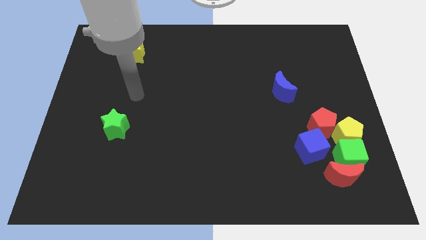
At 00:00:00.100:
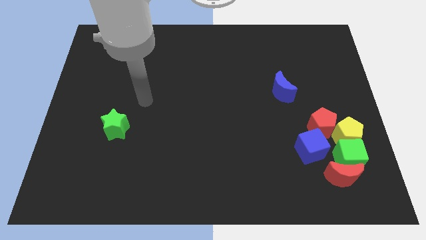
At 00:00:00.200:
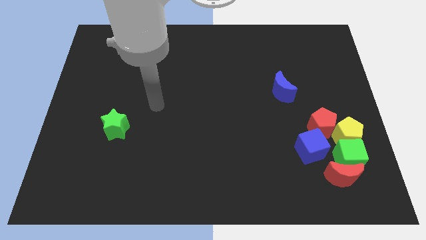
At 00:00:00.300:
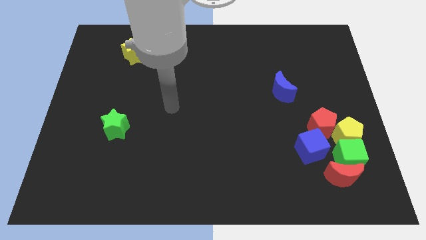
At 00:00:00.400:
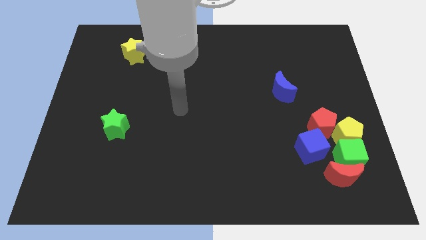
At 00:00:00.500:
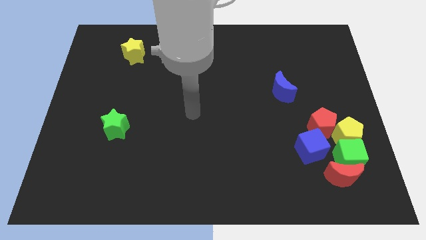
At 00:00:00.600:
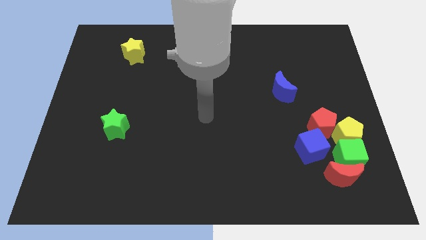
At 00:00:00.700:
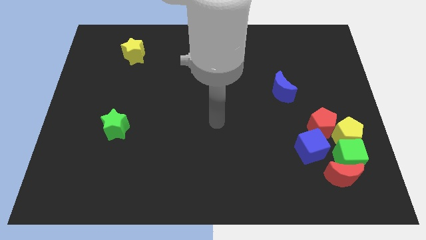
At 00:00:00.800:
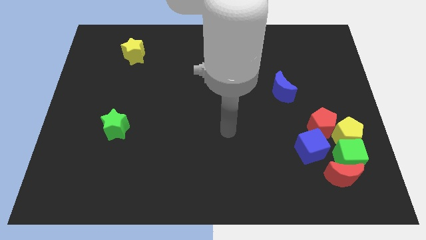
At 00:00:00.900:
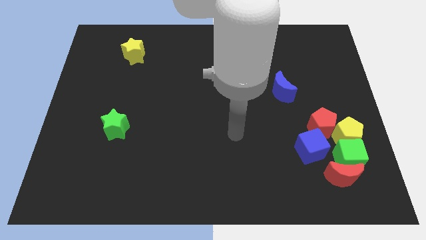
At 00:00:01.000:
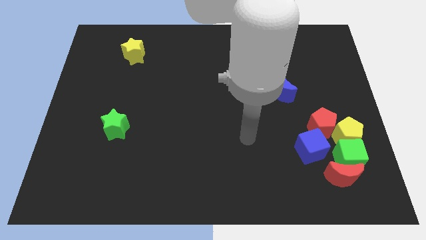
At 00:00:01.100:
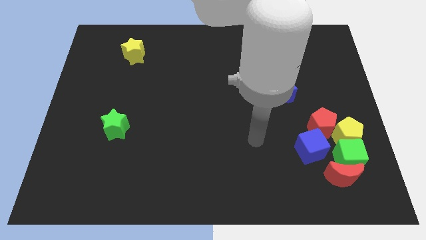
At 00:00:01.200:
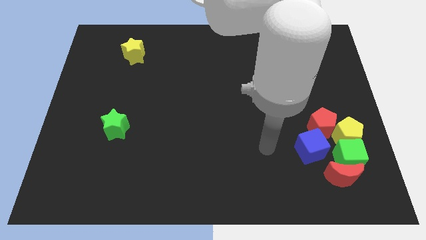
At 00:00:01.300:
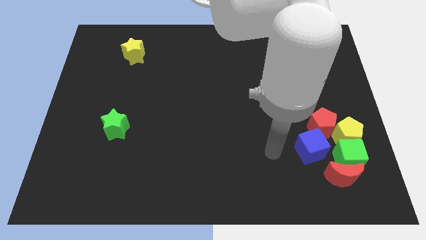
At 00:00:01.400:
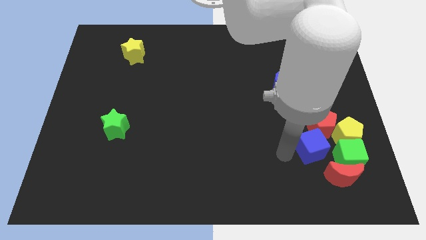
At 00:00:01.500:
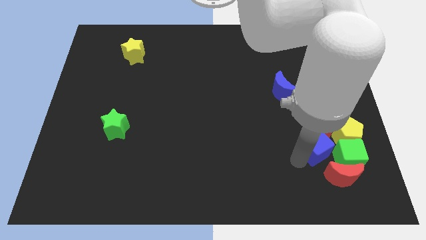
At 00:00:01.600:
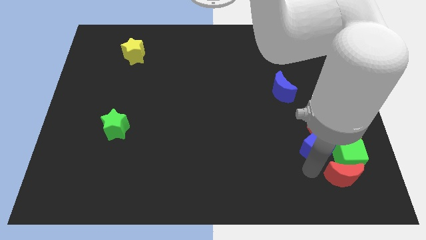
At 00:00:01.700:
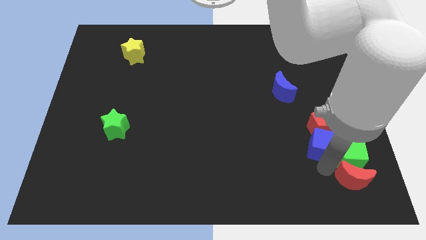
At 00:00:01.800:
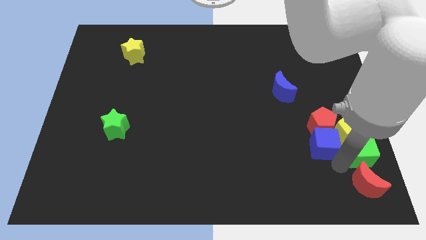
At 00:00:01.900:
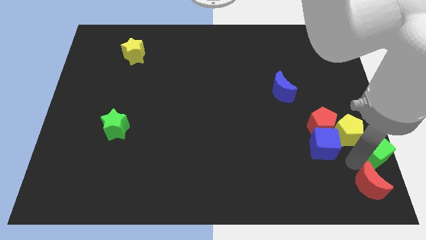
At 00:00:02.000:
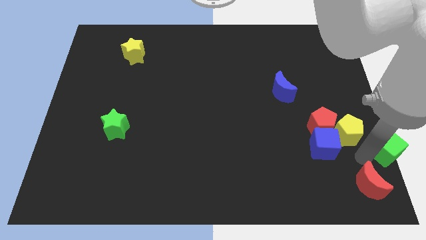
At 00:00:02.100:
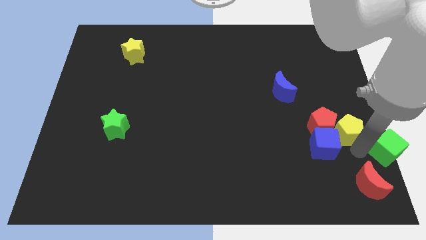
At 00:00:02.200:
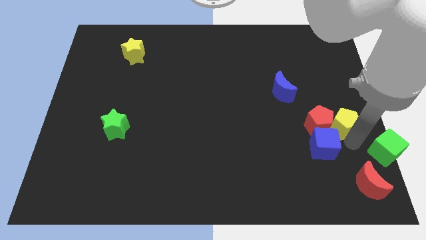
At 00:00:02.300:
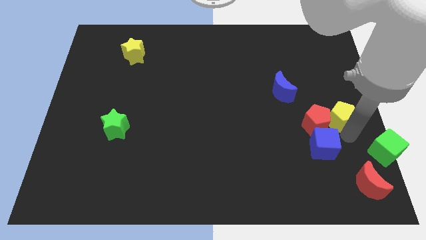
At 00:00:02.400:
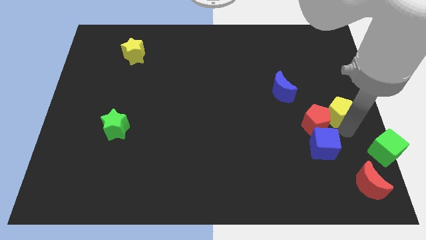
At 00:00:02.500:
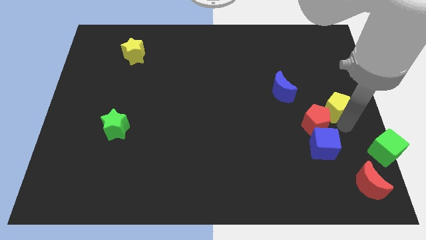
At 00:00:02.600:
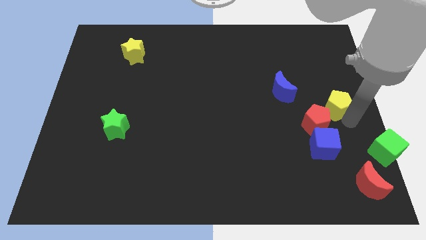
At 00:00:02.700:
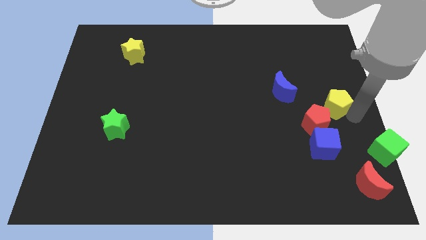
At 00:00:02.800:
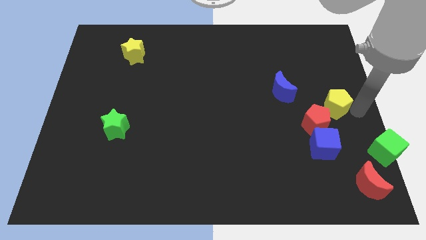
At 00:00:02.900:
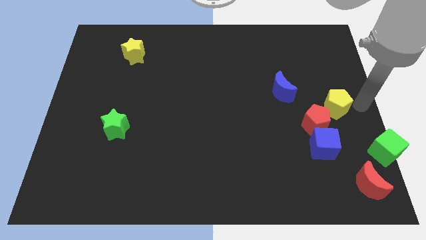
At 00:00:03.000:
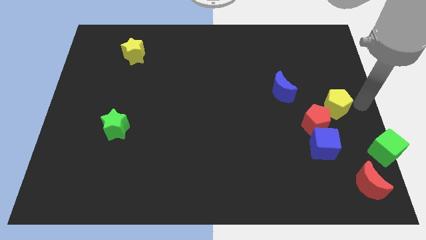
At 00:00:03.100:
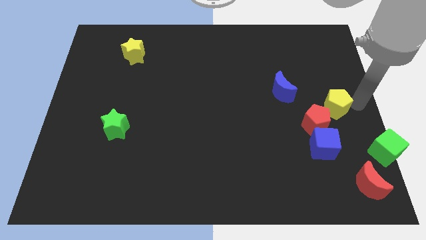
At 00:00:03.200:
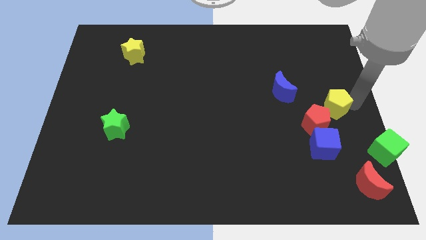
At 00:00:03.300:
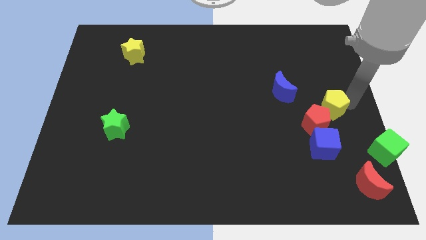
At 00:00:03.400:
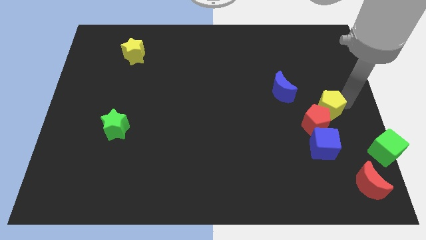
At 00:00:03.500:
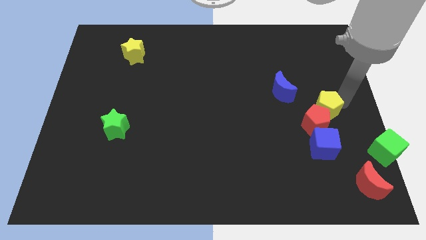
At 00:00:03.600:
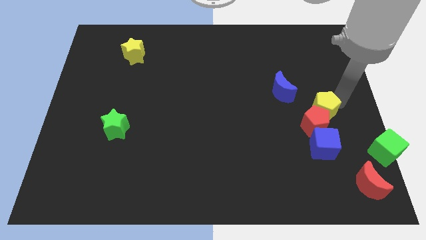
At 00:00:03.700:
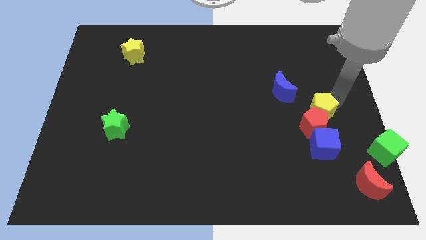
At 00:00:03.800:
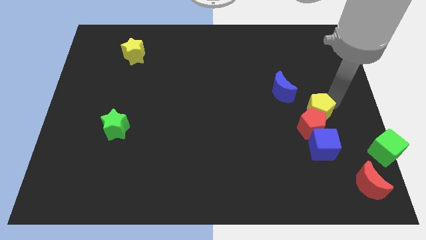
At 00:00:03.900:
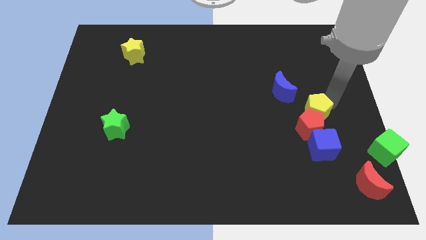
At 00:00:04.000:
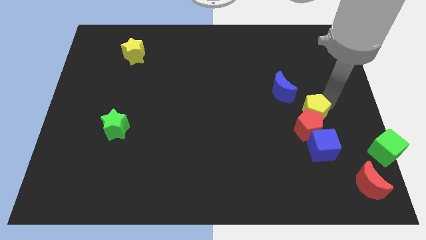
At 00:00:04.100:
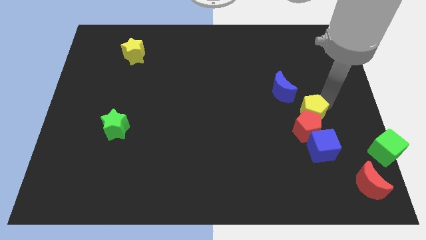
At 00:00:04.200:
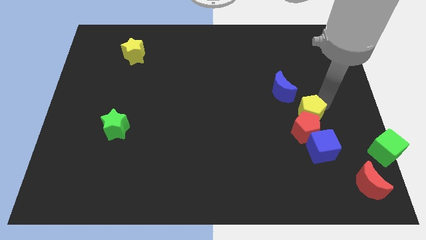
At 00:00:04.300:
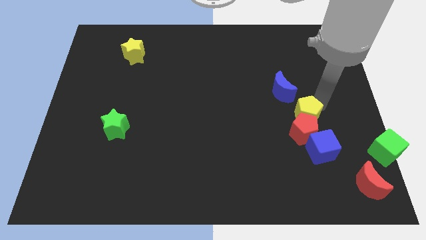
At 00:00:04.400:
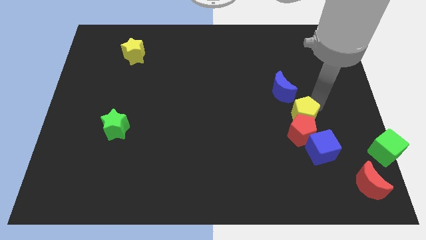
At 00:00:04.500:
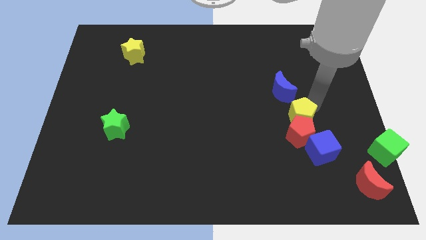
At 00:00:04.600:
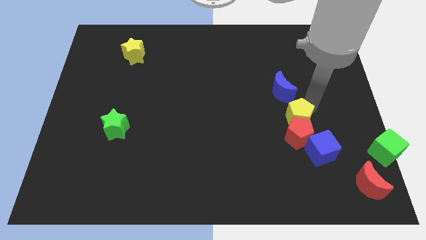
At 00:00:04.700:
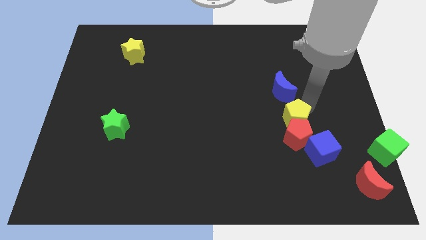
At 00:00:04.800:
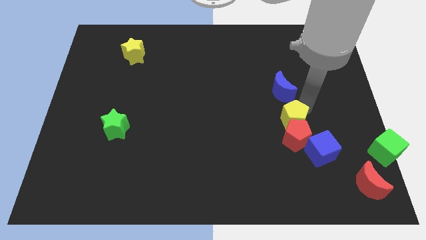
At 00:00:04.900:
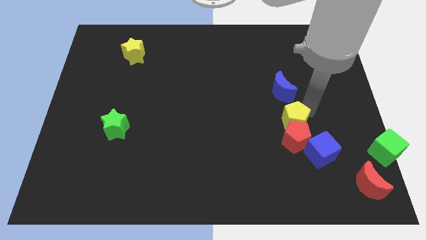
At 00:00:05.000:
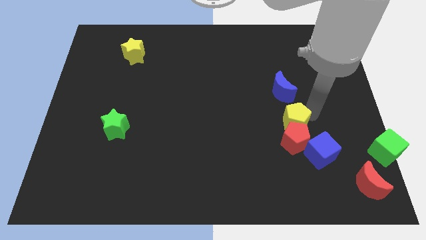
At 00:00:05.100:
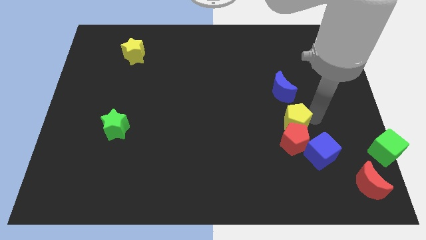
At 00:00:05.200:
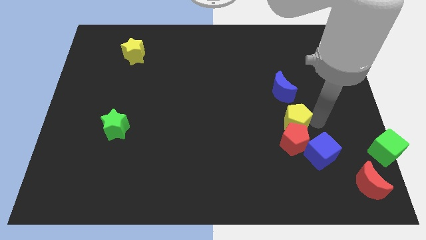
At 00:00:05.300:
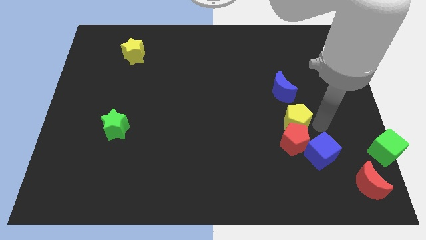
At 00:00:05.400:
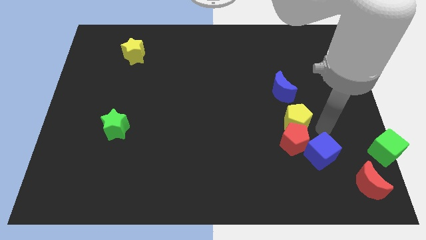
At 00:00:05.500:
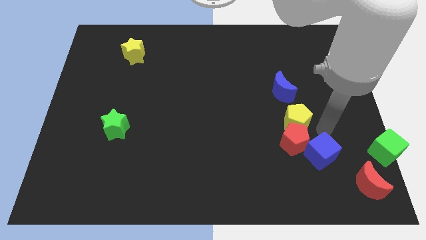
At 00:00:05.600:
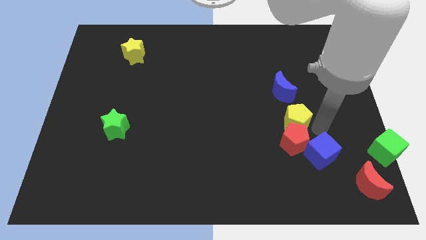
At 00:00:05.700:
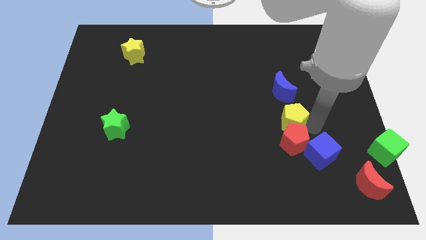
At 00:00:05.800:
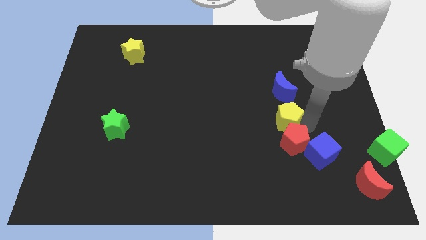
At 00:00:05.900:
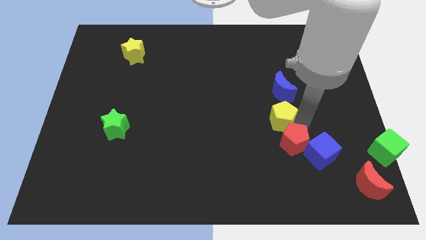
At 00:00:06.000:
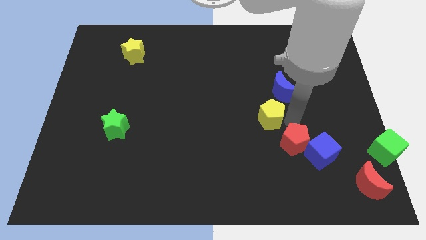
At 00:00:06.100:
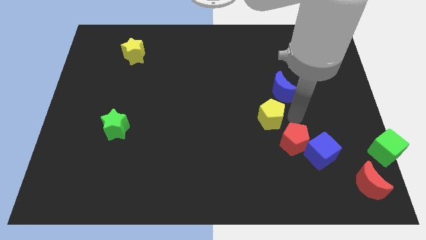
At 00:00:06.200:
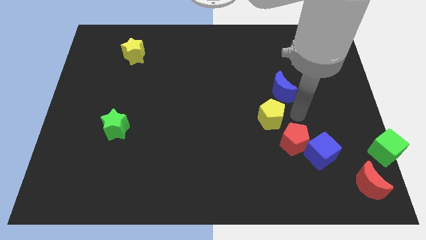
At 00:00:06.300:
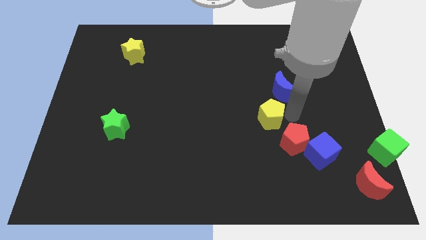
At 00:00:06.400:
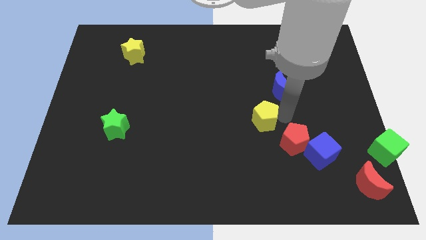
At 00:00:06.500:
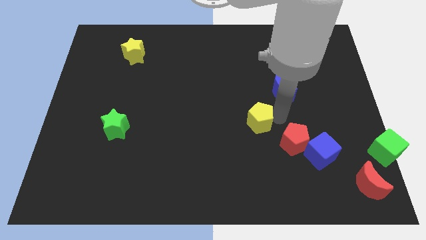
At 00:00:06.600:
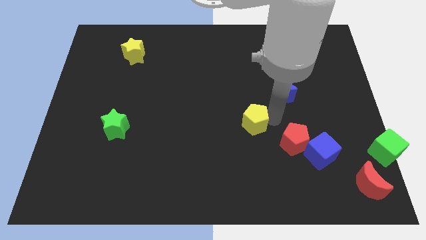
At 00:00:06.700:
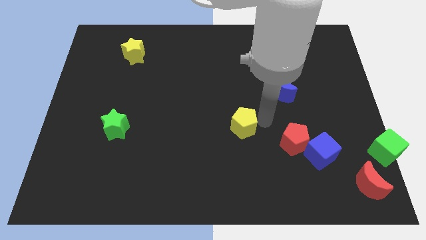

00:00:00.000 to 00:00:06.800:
slide the yellow pentagon left

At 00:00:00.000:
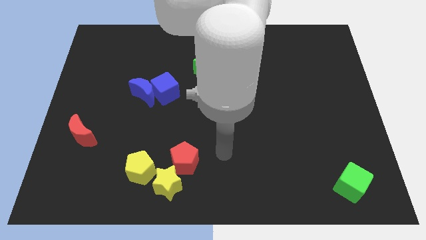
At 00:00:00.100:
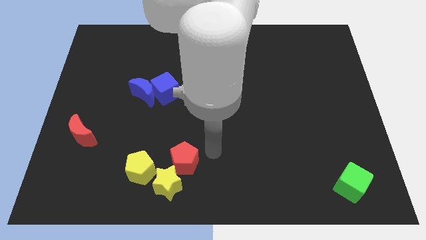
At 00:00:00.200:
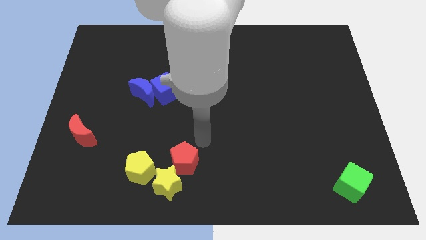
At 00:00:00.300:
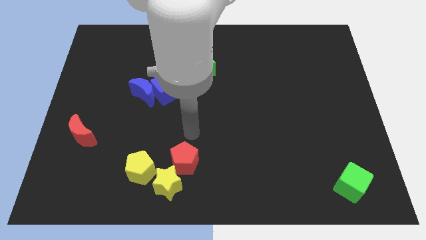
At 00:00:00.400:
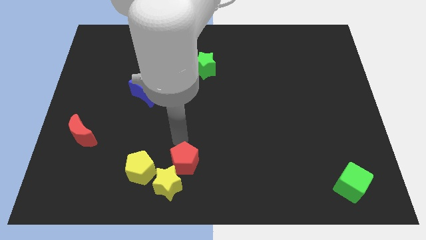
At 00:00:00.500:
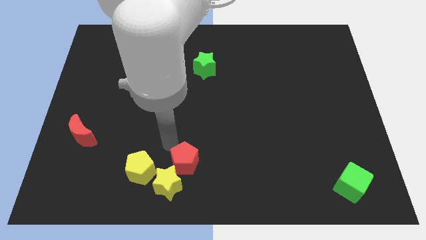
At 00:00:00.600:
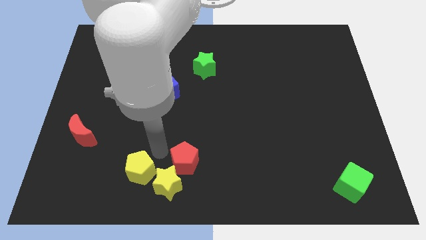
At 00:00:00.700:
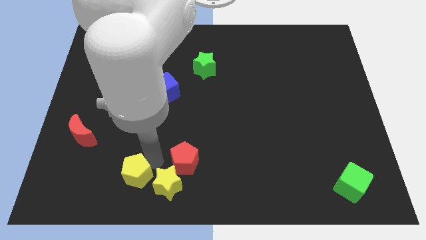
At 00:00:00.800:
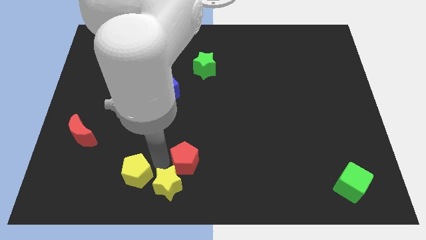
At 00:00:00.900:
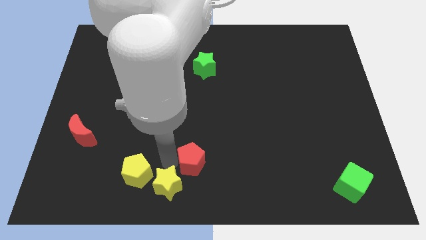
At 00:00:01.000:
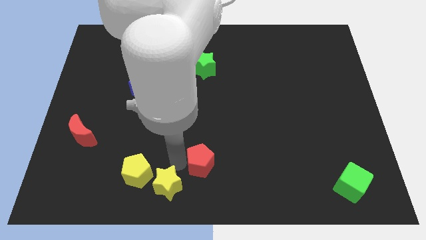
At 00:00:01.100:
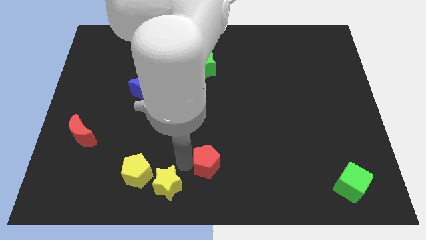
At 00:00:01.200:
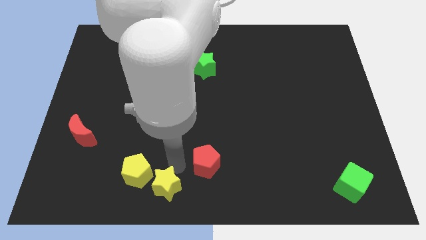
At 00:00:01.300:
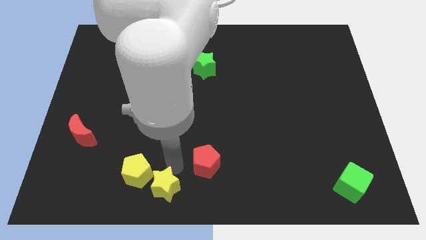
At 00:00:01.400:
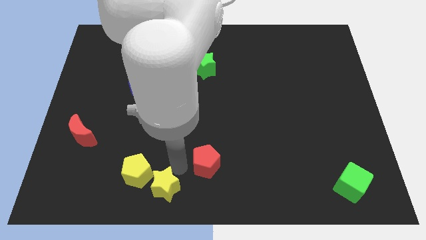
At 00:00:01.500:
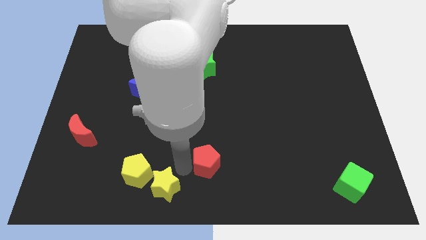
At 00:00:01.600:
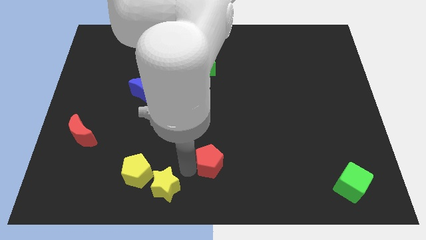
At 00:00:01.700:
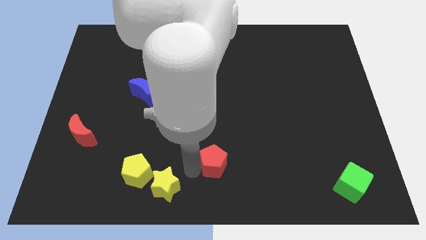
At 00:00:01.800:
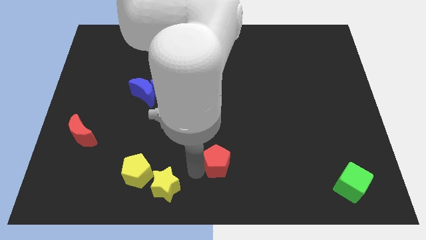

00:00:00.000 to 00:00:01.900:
slightly slide the red pentagon to the right
